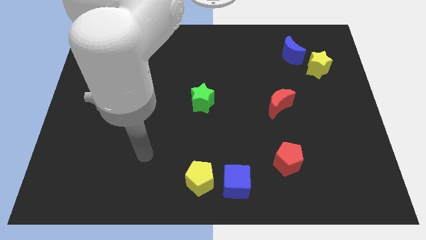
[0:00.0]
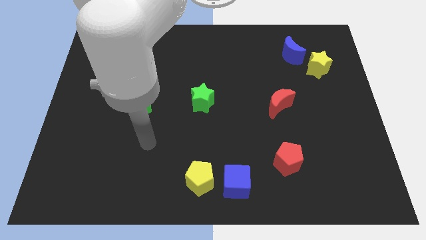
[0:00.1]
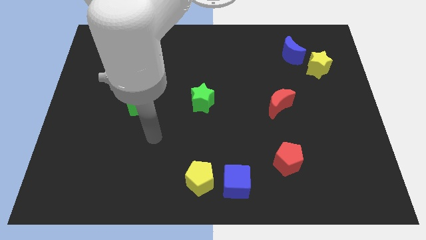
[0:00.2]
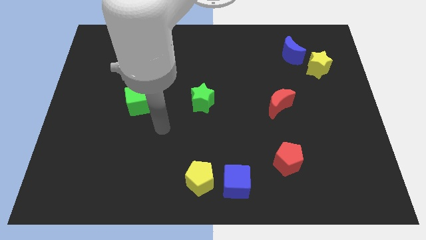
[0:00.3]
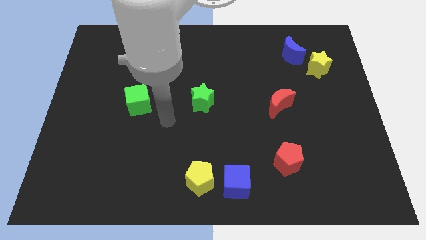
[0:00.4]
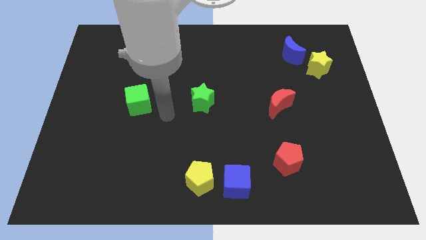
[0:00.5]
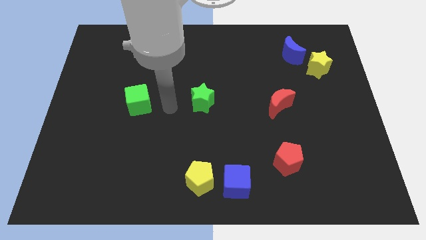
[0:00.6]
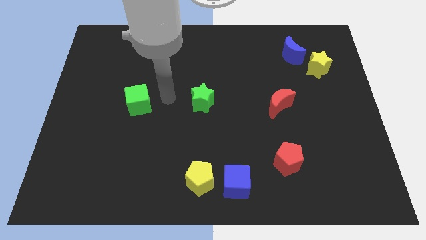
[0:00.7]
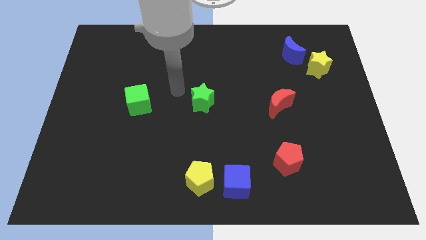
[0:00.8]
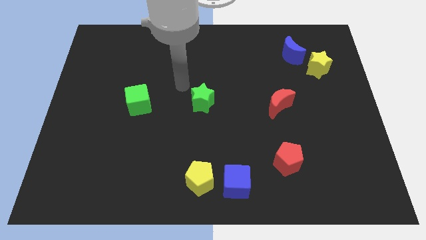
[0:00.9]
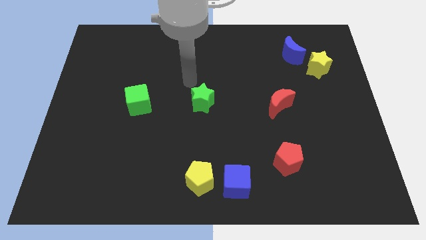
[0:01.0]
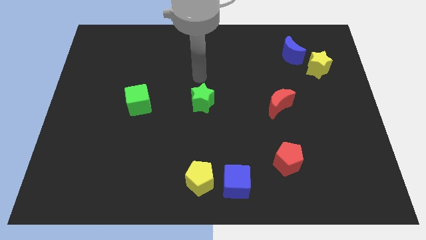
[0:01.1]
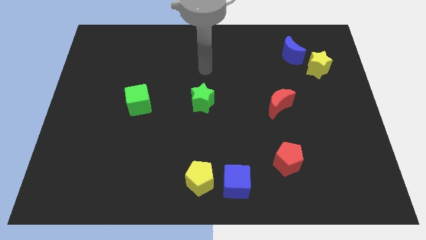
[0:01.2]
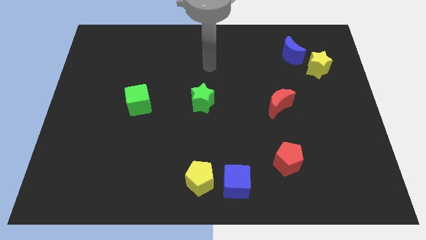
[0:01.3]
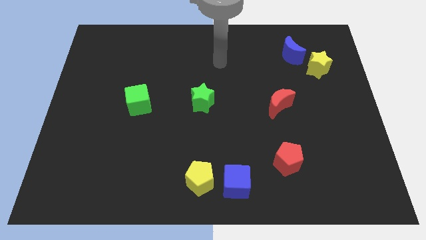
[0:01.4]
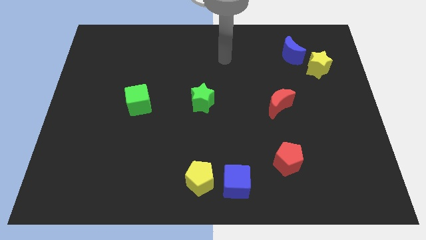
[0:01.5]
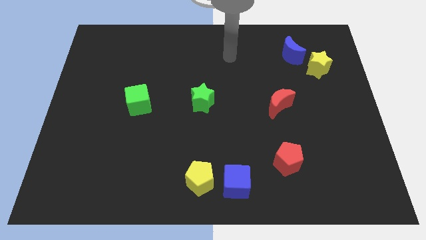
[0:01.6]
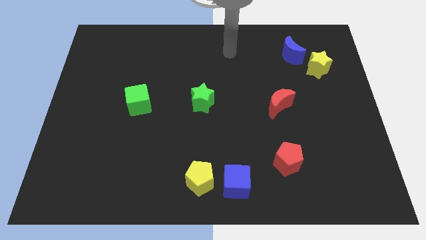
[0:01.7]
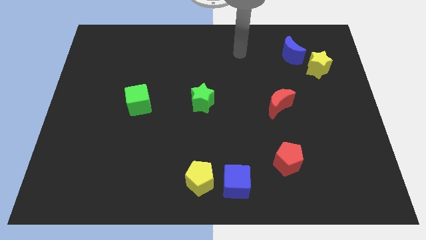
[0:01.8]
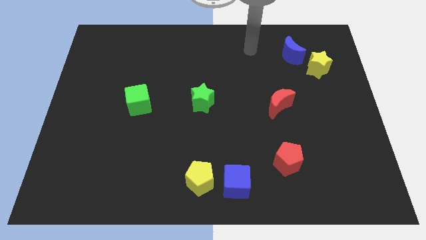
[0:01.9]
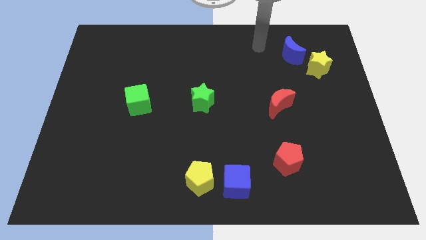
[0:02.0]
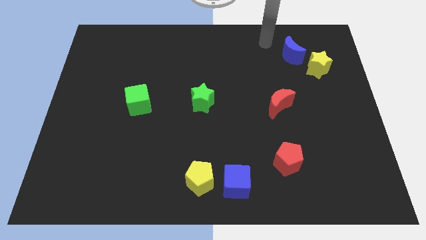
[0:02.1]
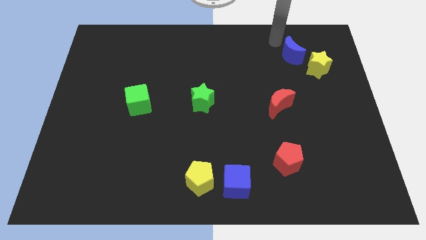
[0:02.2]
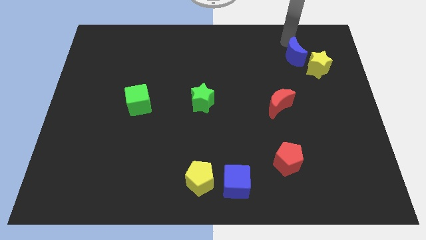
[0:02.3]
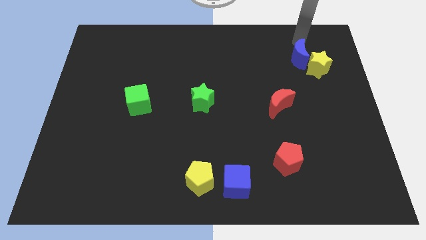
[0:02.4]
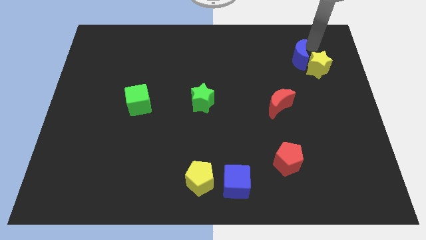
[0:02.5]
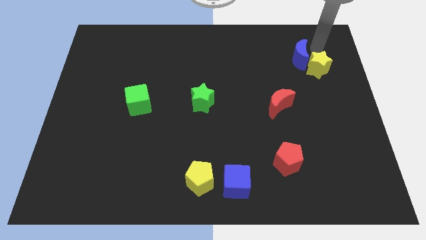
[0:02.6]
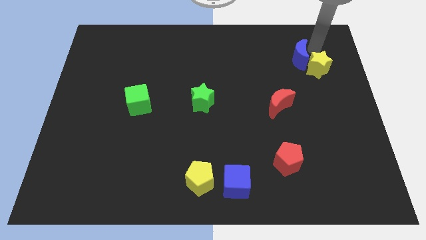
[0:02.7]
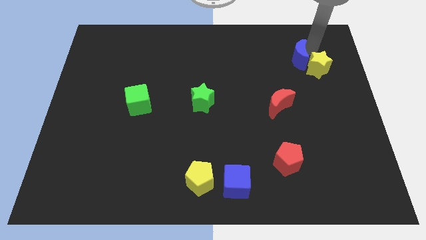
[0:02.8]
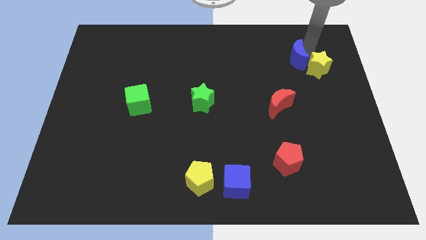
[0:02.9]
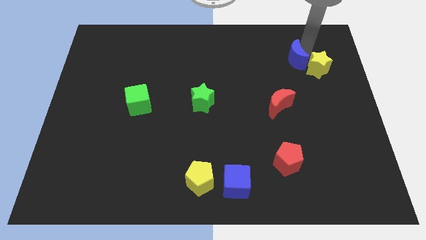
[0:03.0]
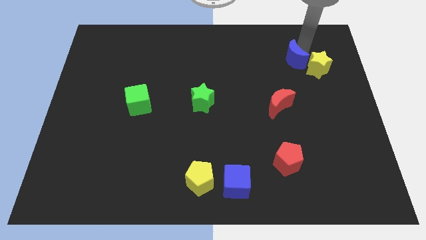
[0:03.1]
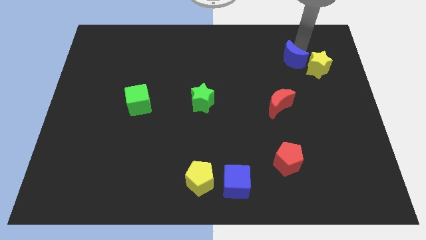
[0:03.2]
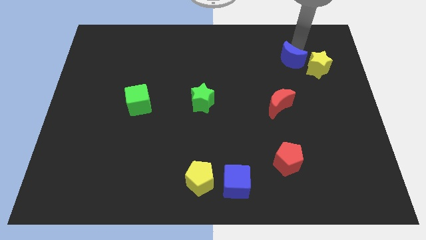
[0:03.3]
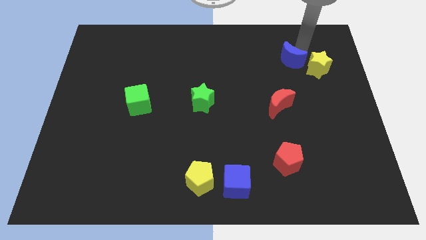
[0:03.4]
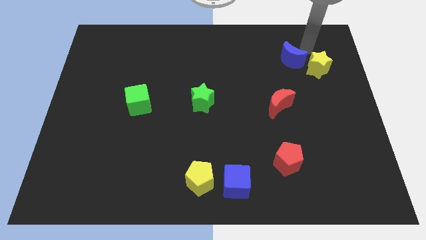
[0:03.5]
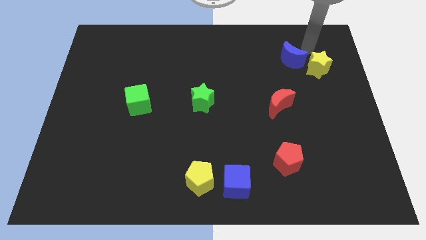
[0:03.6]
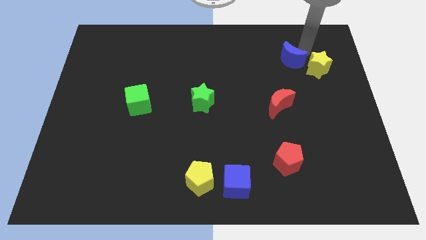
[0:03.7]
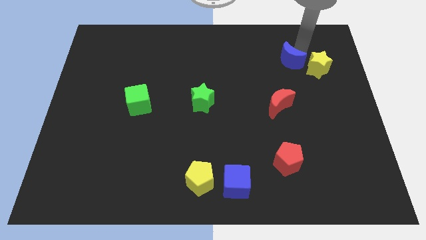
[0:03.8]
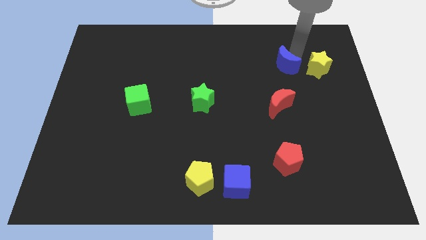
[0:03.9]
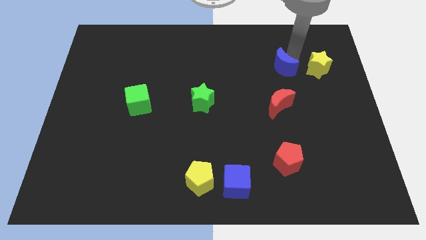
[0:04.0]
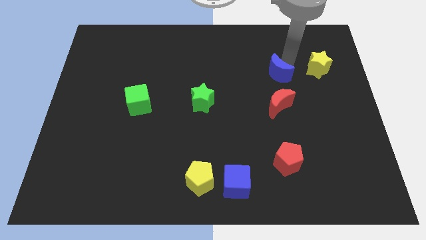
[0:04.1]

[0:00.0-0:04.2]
slide the blue moon a little bit downwards and left diagonally

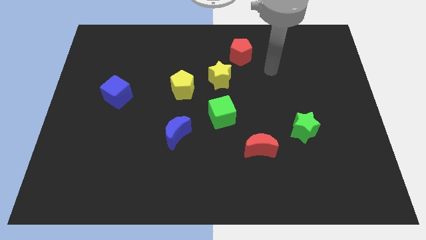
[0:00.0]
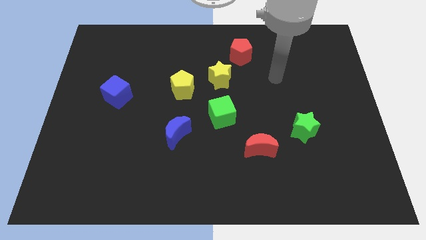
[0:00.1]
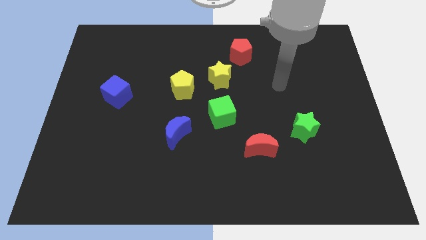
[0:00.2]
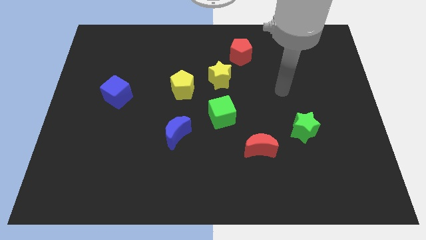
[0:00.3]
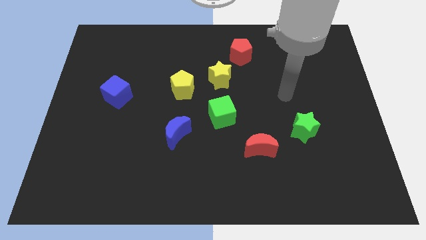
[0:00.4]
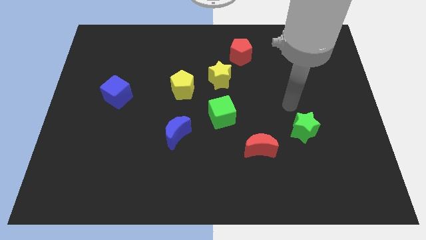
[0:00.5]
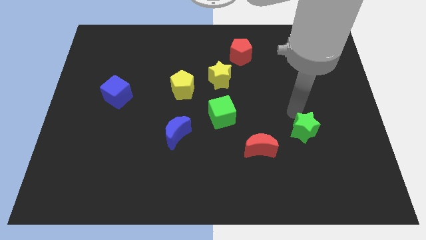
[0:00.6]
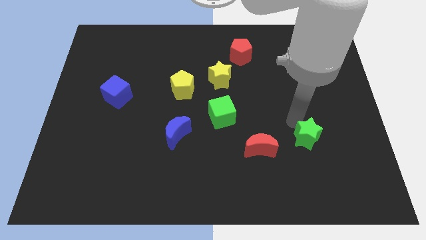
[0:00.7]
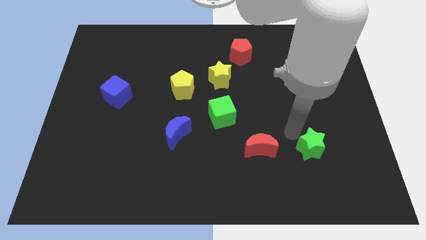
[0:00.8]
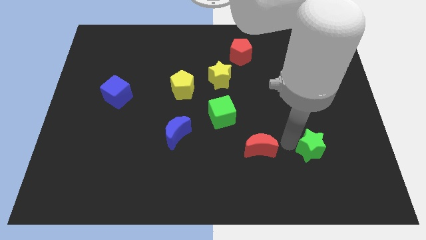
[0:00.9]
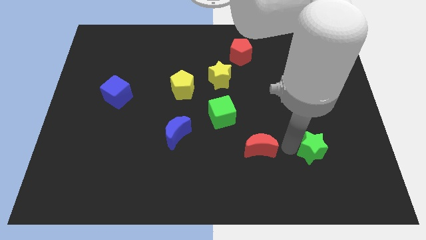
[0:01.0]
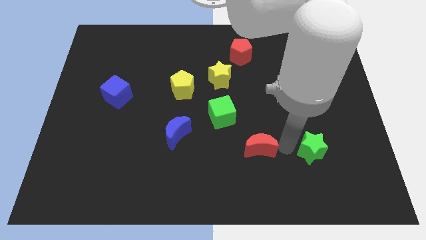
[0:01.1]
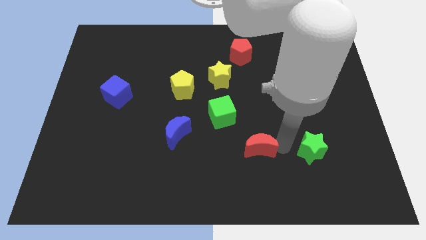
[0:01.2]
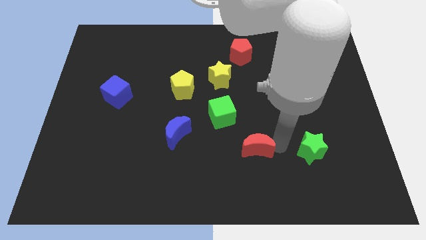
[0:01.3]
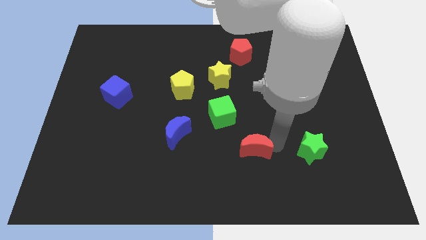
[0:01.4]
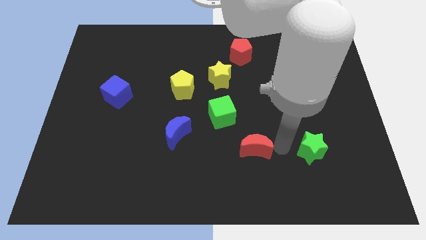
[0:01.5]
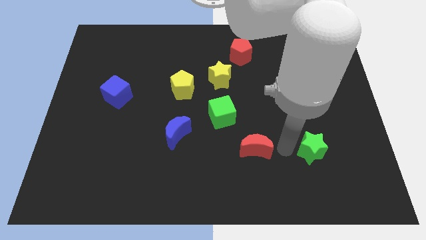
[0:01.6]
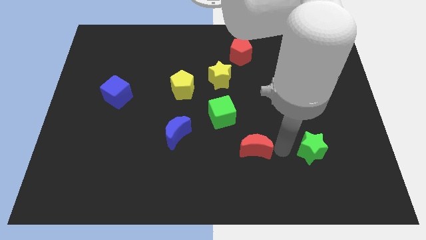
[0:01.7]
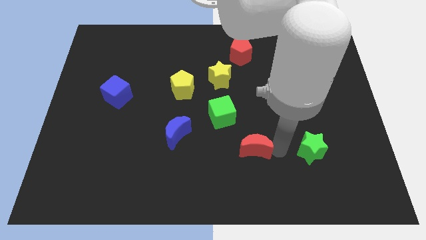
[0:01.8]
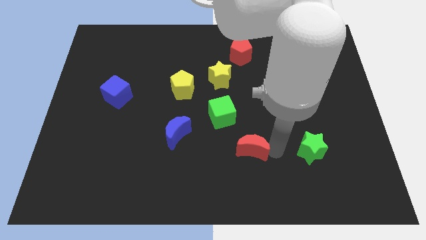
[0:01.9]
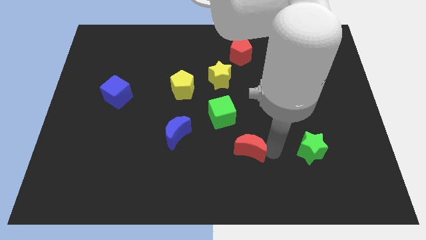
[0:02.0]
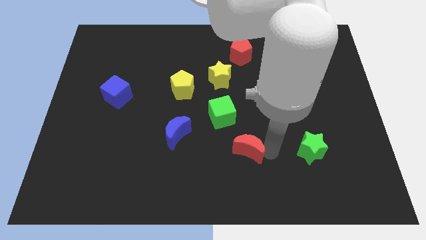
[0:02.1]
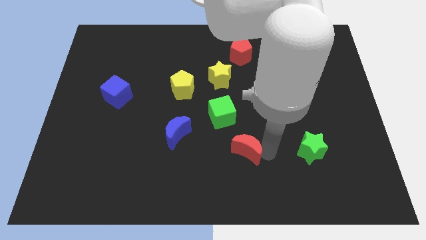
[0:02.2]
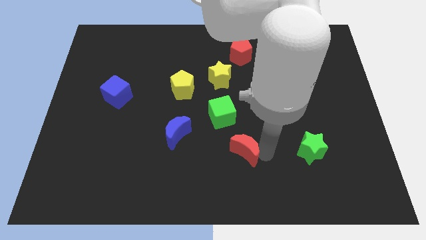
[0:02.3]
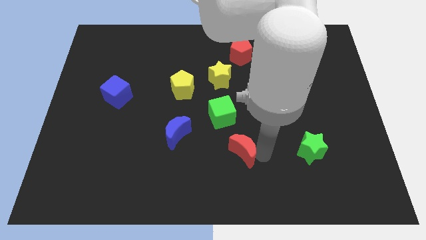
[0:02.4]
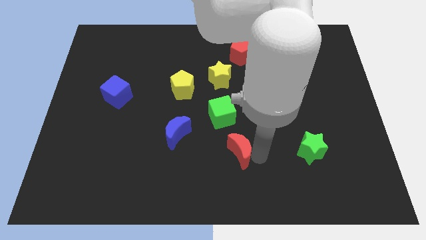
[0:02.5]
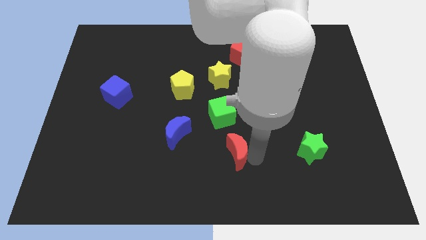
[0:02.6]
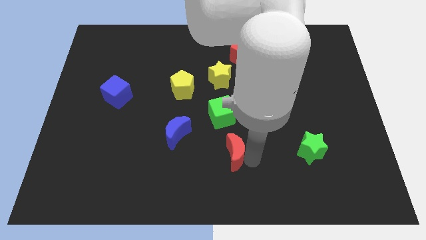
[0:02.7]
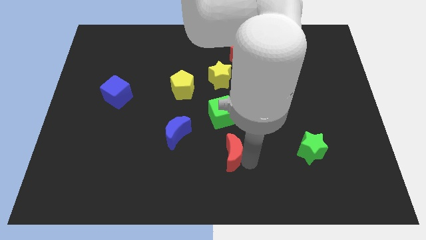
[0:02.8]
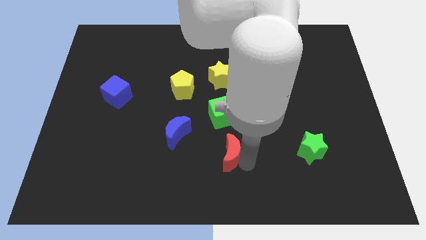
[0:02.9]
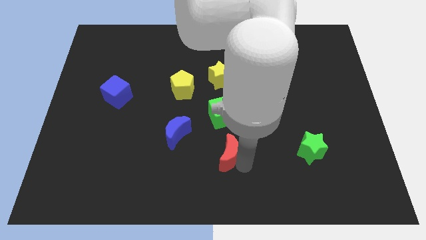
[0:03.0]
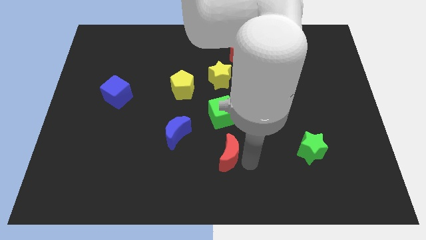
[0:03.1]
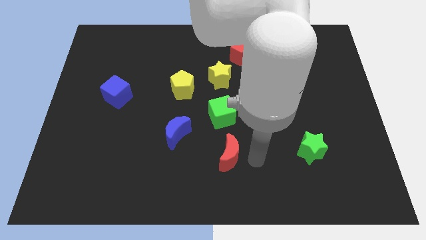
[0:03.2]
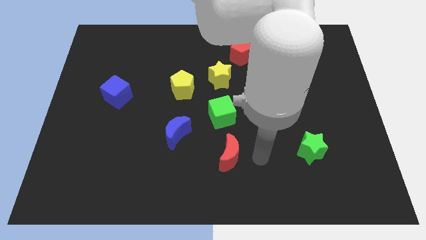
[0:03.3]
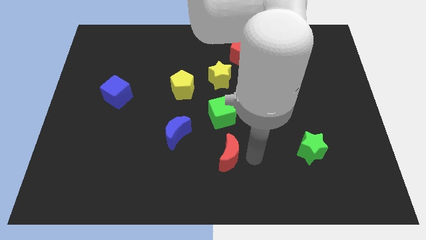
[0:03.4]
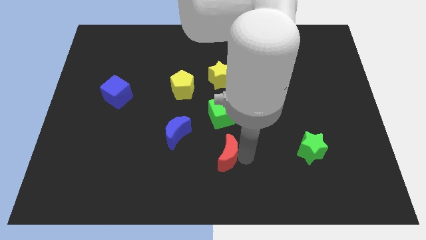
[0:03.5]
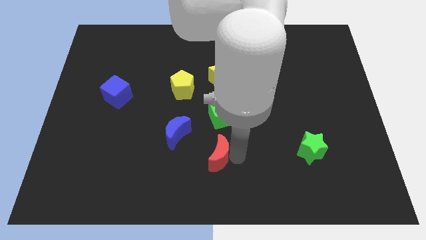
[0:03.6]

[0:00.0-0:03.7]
slightly push the red moon left

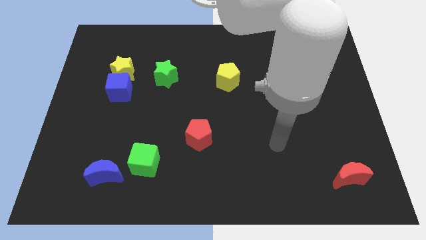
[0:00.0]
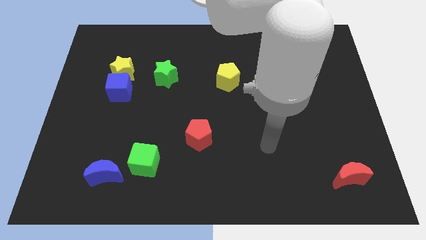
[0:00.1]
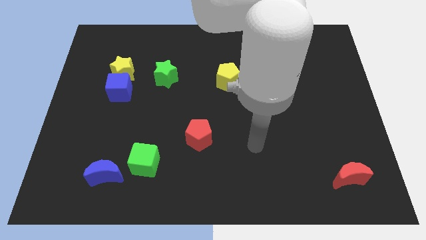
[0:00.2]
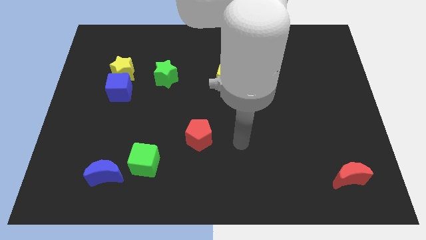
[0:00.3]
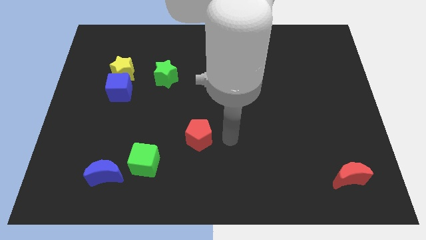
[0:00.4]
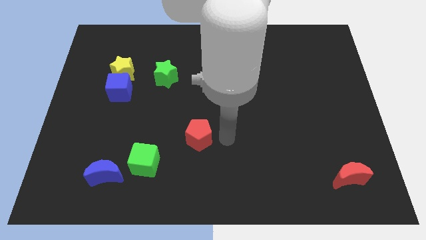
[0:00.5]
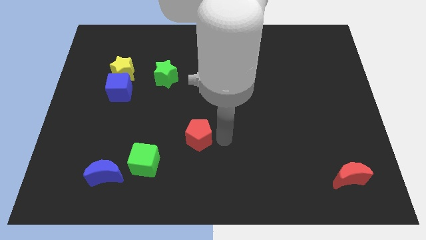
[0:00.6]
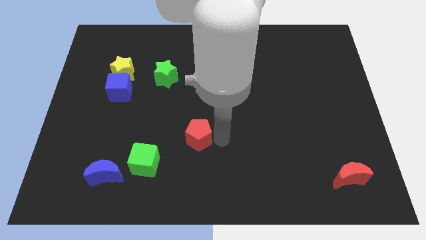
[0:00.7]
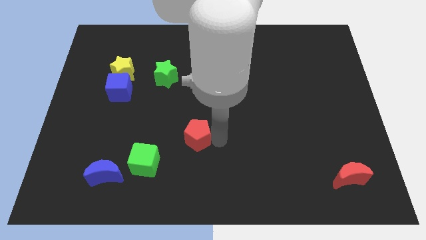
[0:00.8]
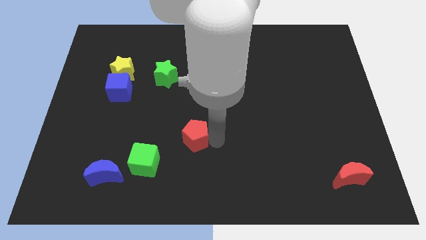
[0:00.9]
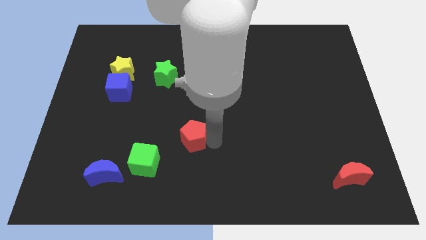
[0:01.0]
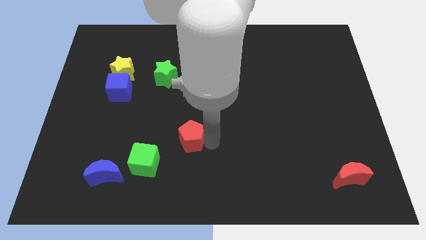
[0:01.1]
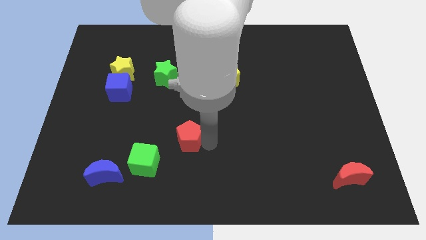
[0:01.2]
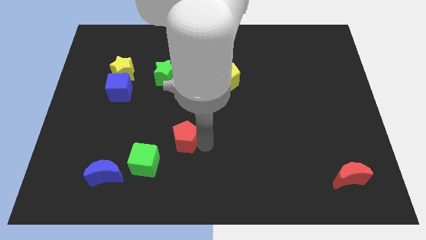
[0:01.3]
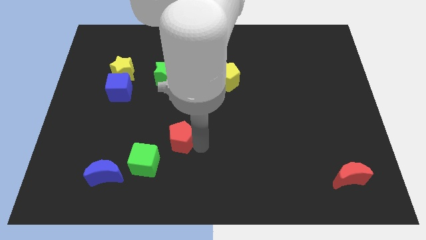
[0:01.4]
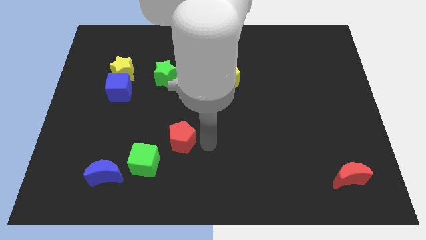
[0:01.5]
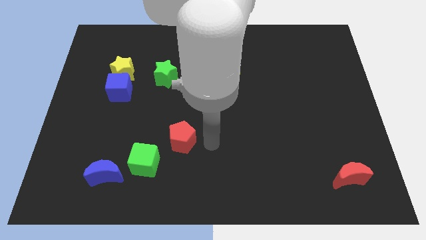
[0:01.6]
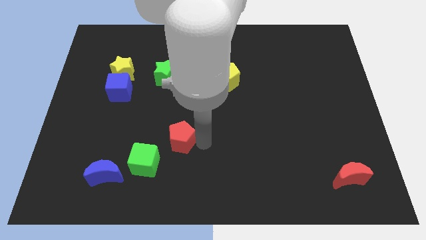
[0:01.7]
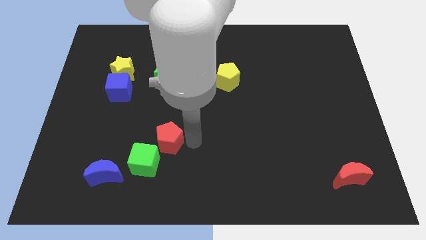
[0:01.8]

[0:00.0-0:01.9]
slightly push the red pentagon left
